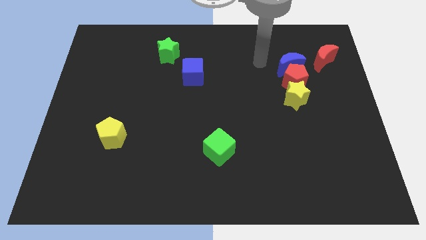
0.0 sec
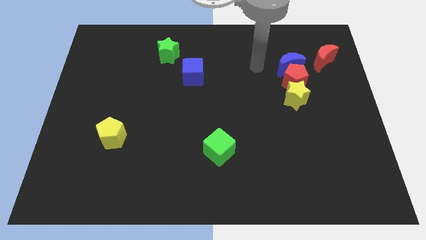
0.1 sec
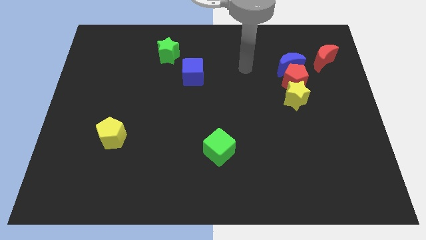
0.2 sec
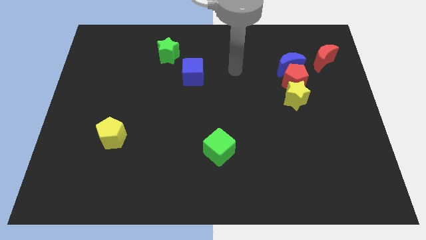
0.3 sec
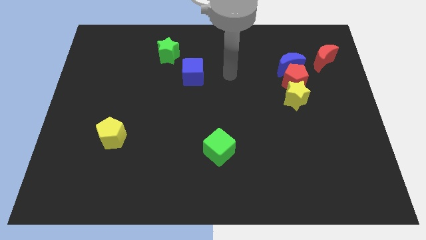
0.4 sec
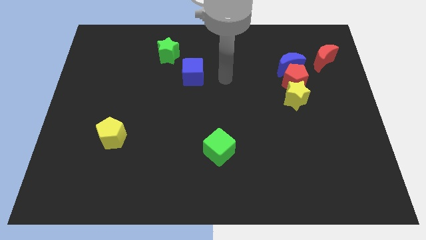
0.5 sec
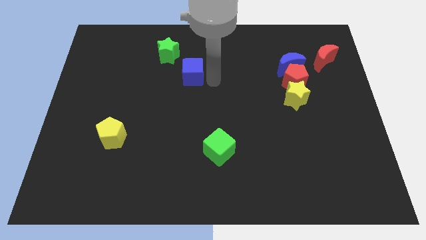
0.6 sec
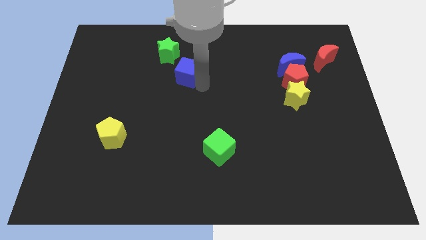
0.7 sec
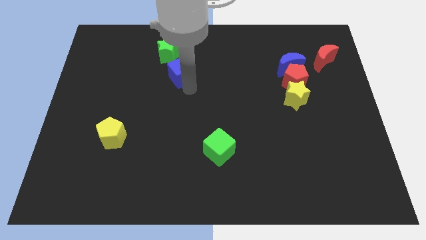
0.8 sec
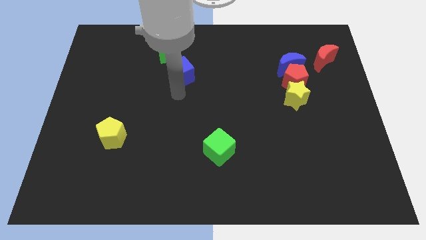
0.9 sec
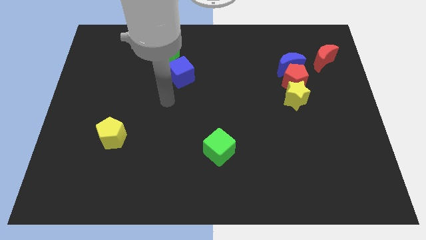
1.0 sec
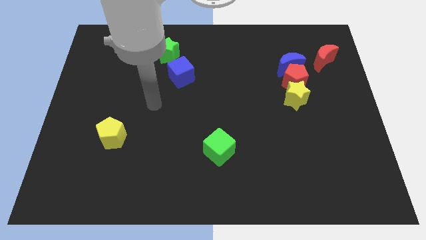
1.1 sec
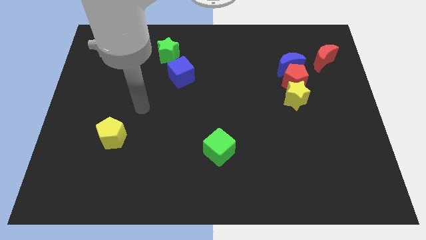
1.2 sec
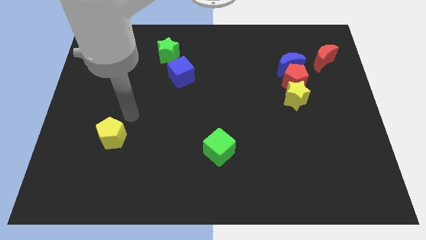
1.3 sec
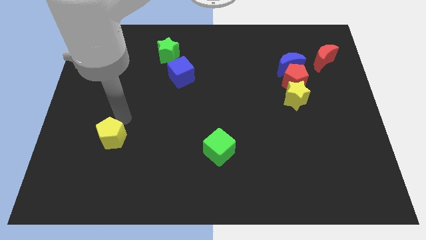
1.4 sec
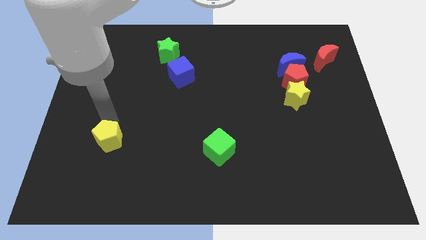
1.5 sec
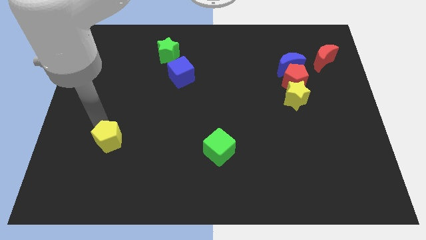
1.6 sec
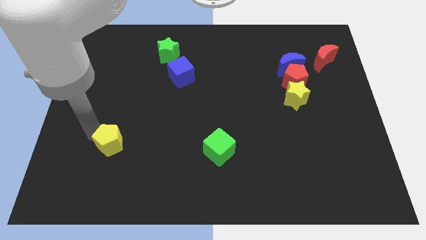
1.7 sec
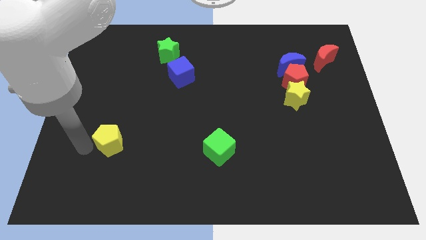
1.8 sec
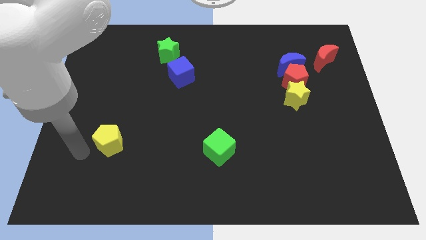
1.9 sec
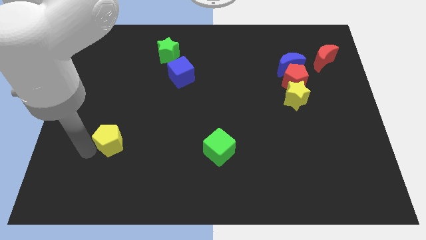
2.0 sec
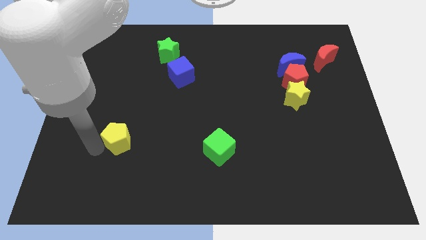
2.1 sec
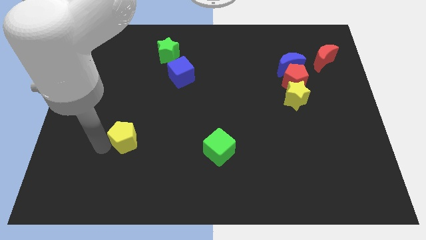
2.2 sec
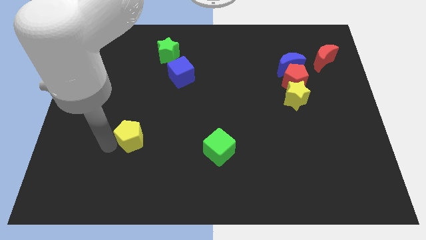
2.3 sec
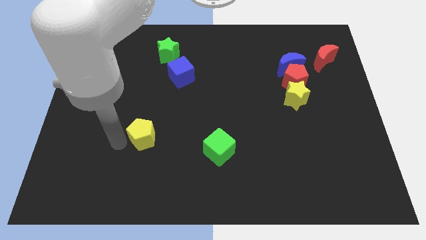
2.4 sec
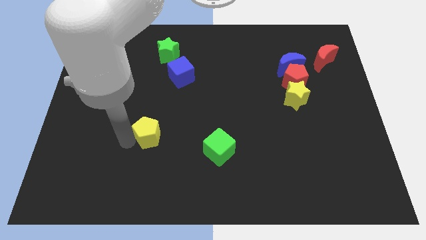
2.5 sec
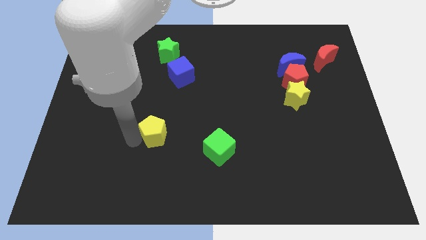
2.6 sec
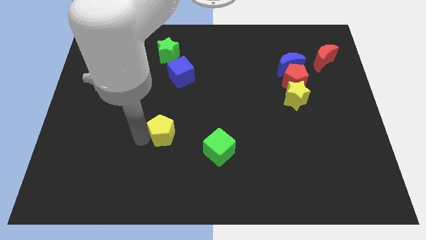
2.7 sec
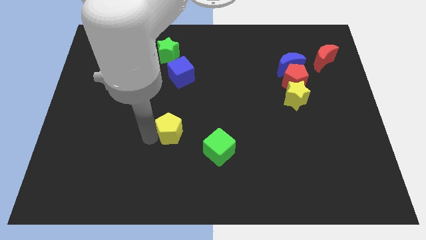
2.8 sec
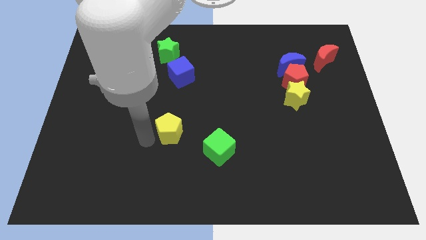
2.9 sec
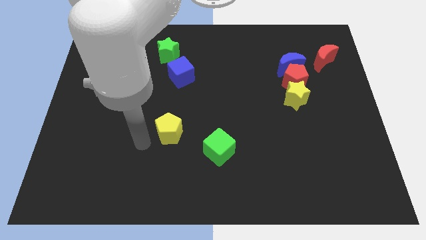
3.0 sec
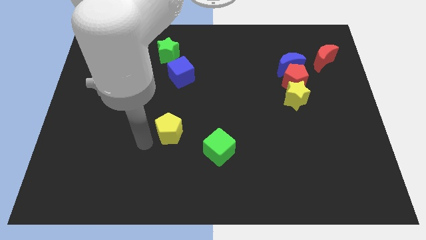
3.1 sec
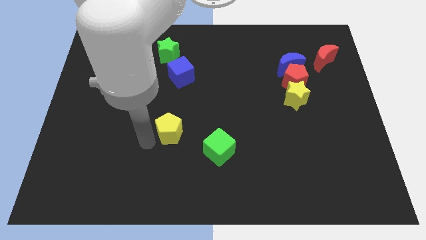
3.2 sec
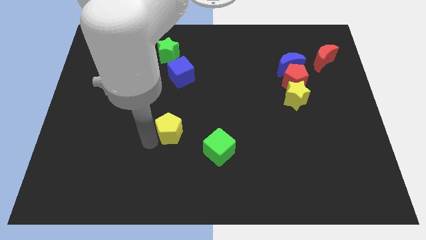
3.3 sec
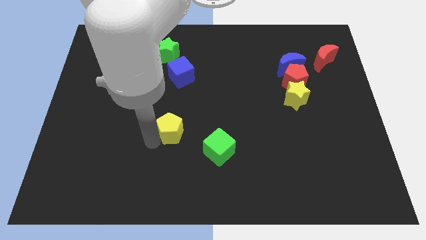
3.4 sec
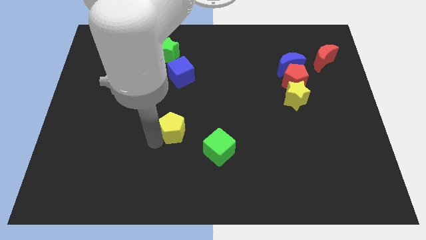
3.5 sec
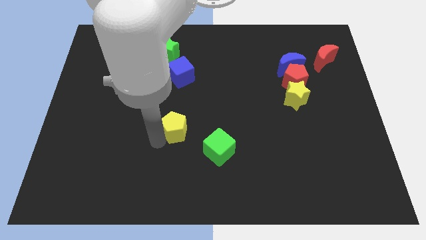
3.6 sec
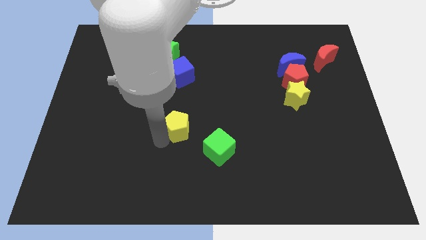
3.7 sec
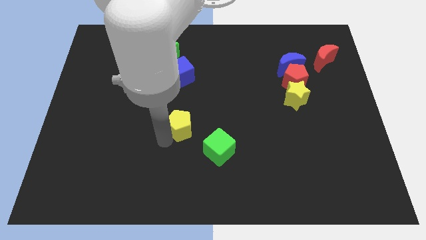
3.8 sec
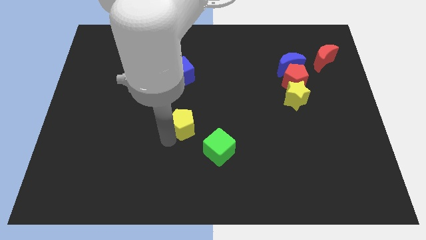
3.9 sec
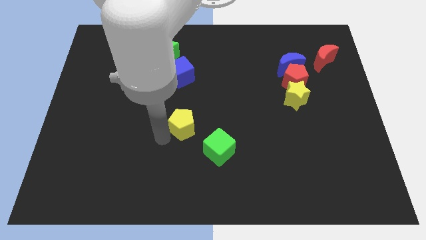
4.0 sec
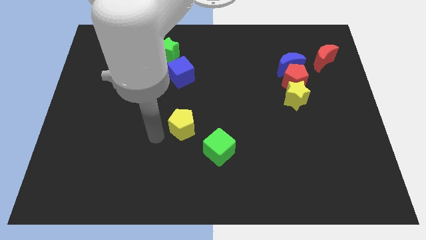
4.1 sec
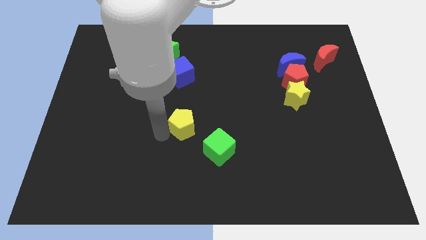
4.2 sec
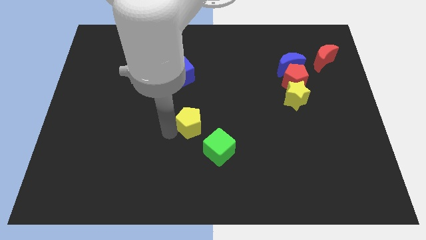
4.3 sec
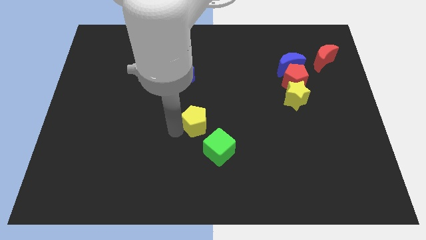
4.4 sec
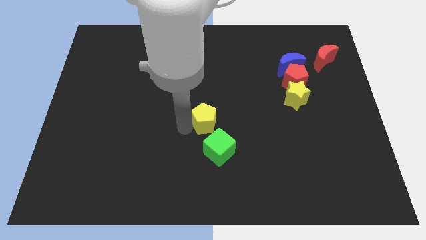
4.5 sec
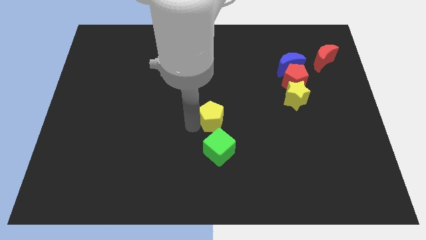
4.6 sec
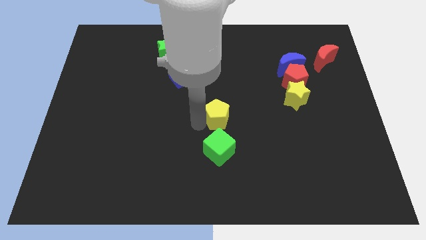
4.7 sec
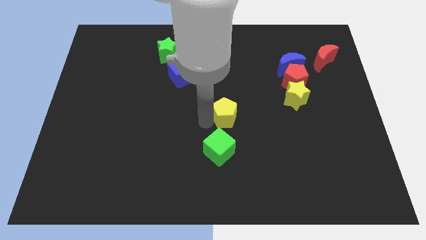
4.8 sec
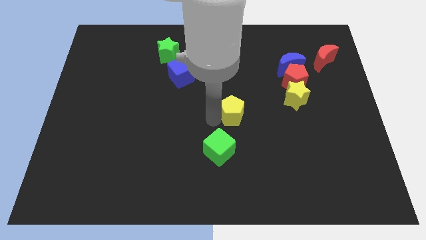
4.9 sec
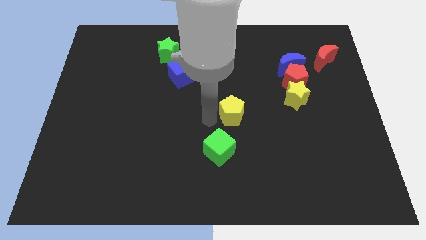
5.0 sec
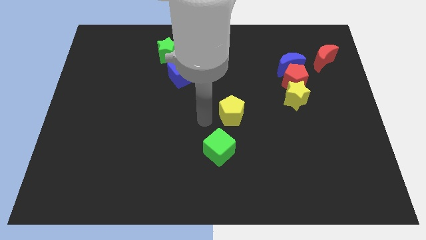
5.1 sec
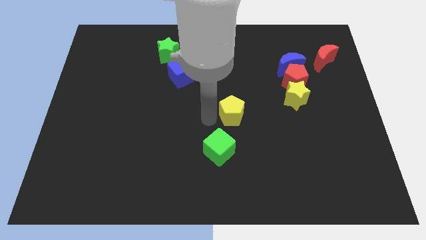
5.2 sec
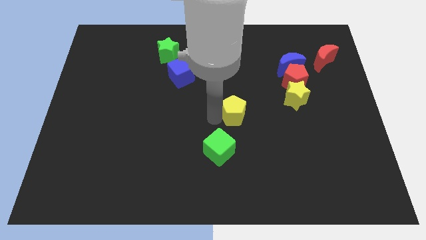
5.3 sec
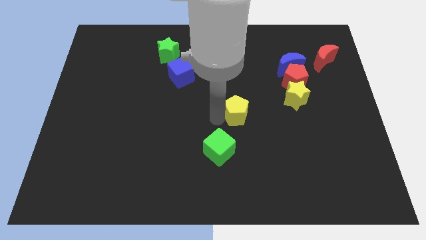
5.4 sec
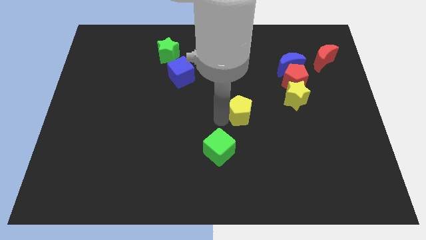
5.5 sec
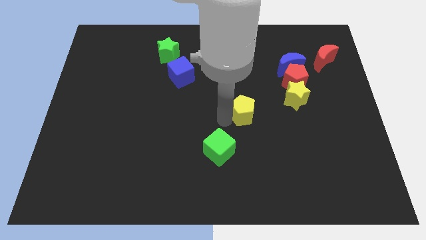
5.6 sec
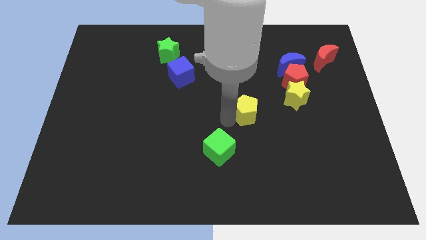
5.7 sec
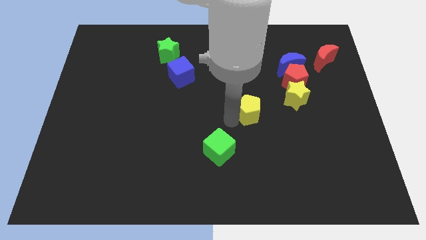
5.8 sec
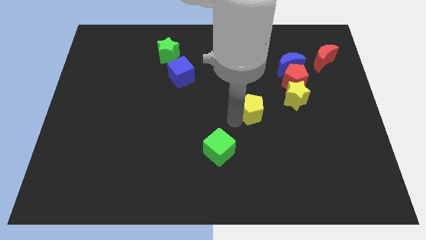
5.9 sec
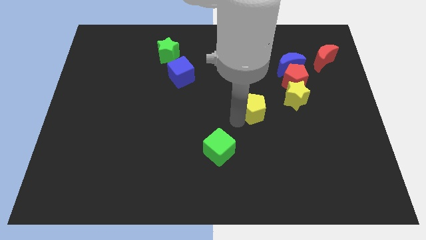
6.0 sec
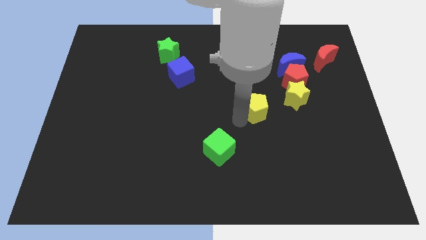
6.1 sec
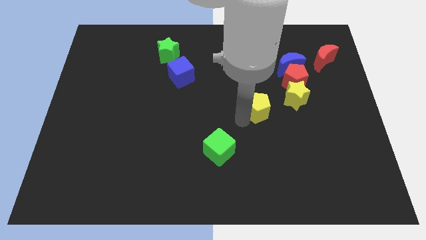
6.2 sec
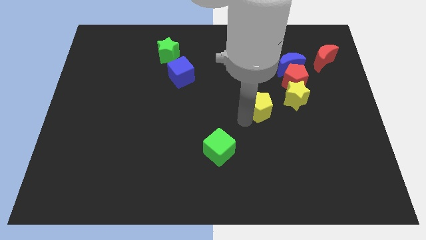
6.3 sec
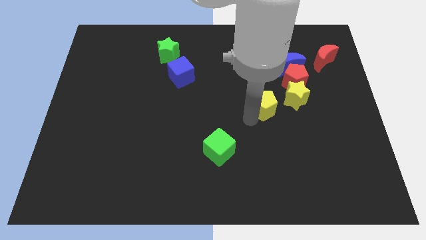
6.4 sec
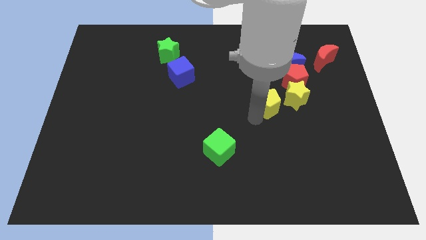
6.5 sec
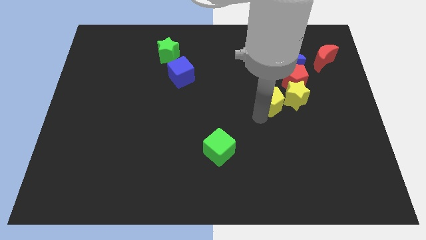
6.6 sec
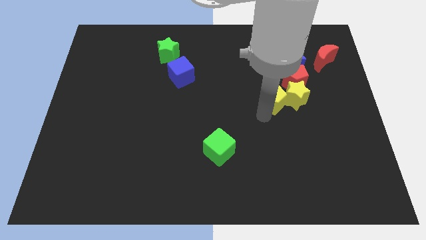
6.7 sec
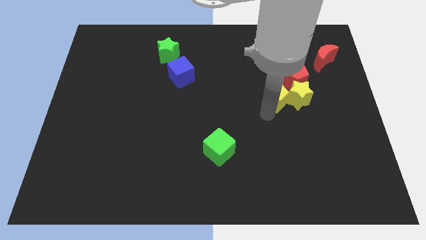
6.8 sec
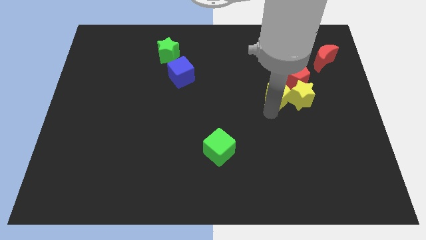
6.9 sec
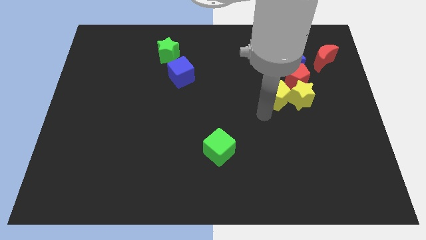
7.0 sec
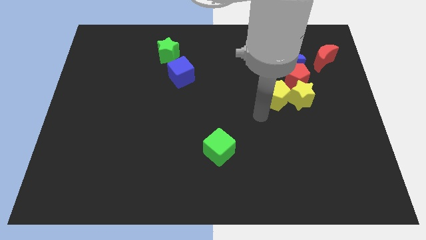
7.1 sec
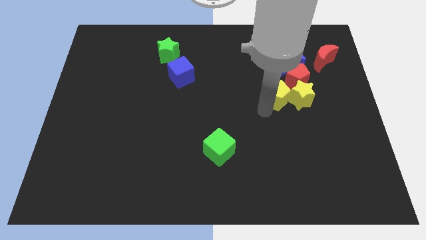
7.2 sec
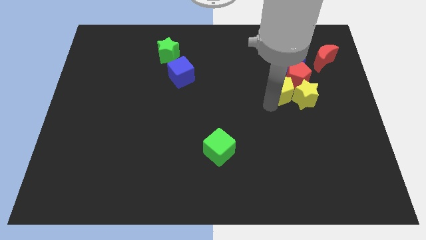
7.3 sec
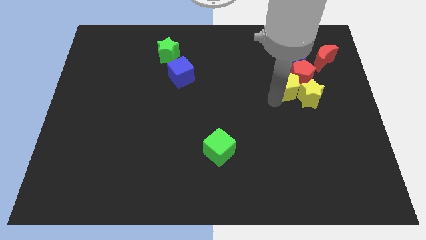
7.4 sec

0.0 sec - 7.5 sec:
move the yellow pentagon to the red pentagon
